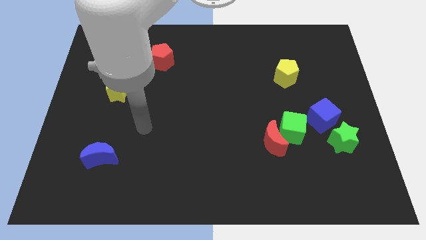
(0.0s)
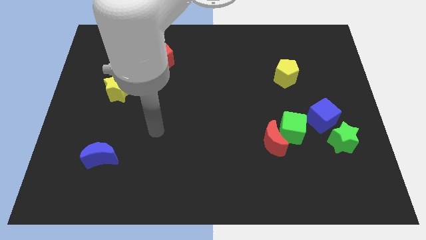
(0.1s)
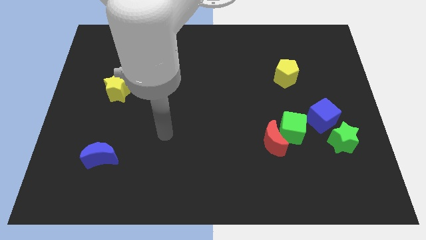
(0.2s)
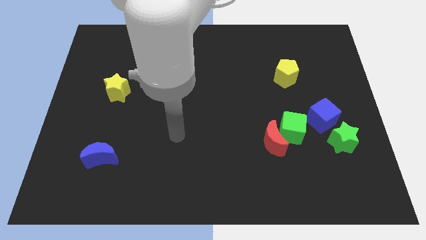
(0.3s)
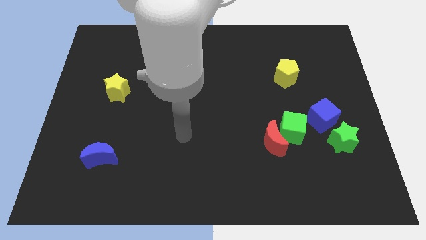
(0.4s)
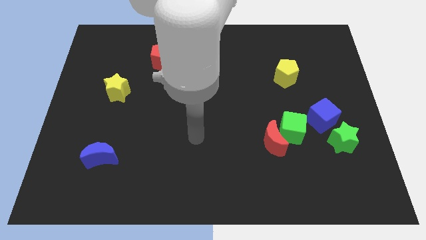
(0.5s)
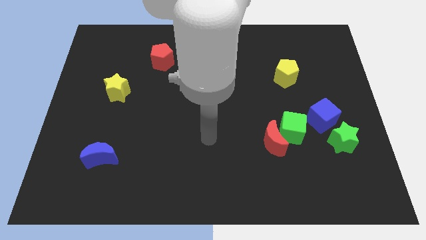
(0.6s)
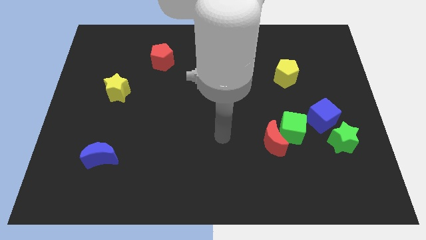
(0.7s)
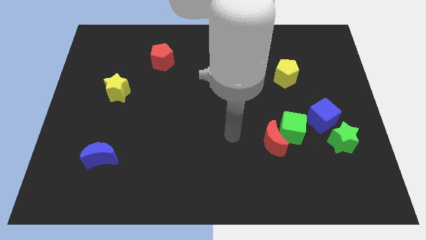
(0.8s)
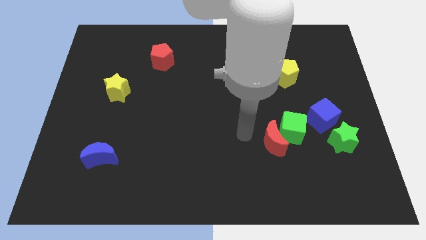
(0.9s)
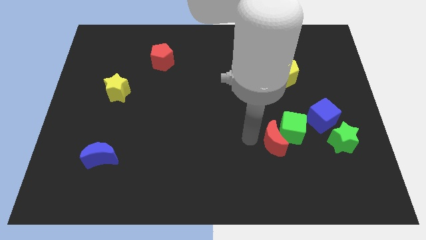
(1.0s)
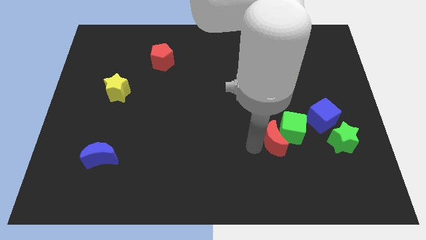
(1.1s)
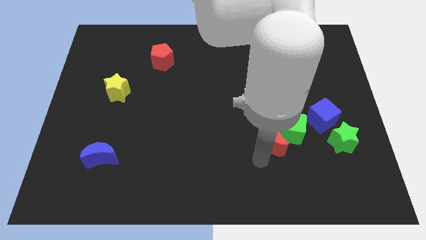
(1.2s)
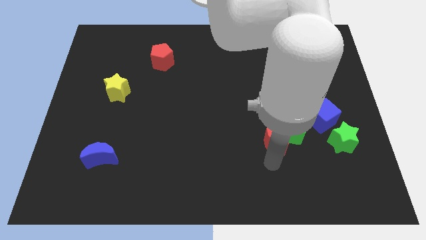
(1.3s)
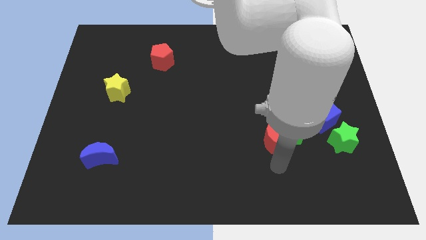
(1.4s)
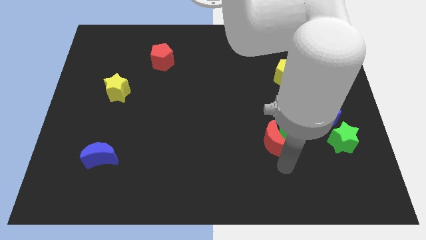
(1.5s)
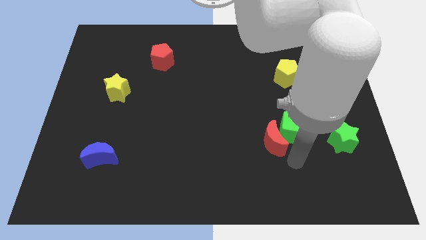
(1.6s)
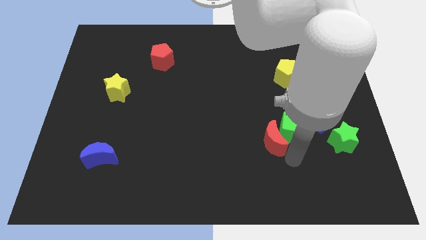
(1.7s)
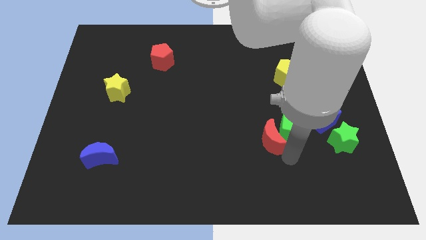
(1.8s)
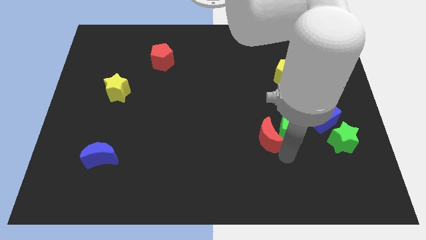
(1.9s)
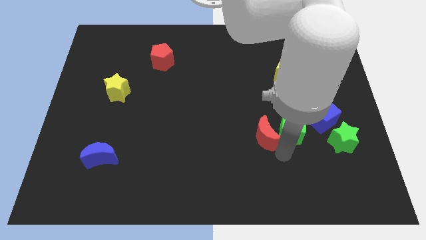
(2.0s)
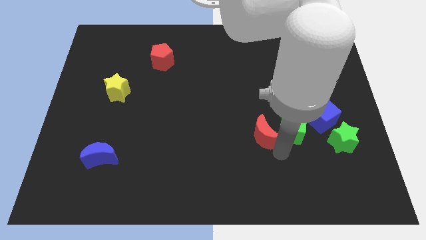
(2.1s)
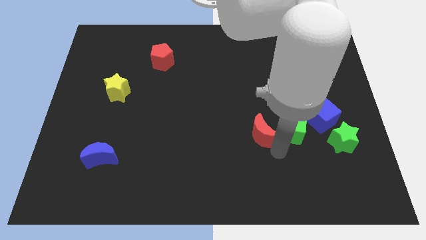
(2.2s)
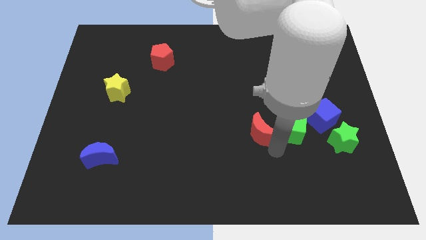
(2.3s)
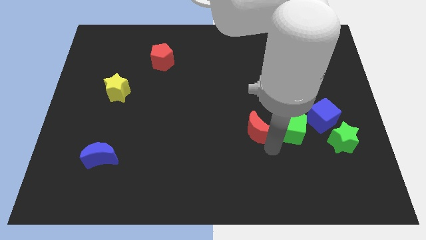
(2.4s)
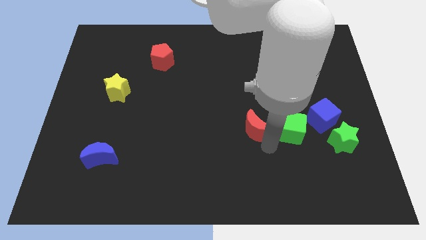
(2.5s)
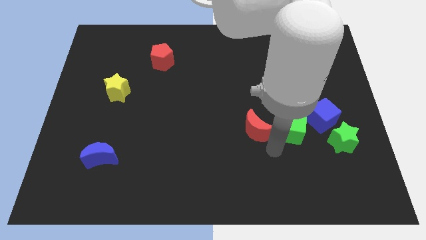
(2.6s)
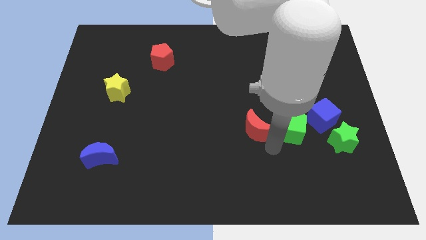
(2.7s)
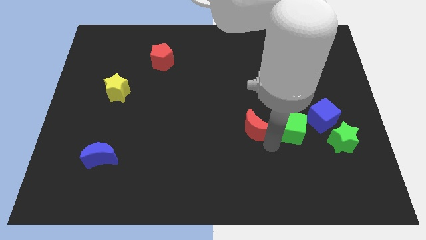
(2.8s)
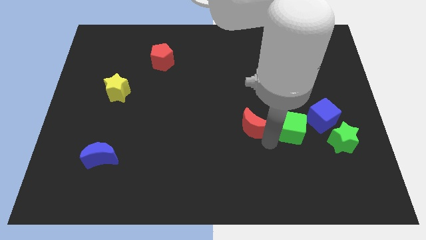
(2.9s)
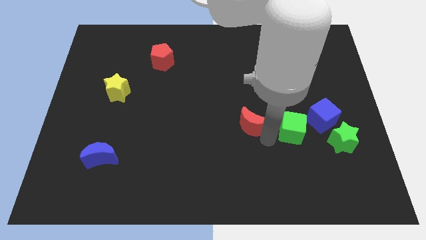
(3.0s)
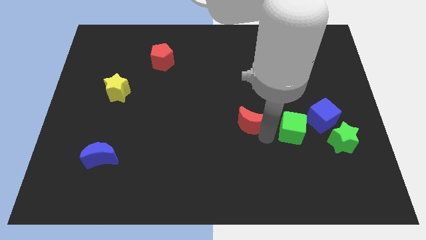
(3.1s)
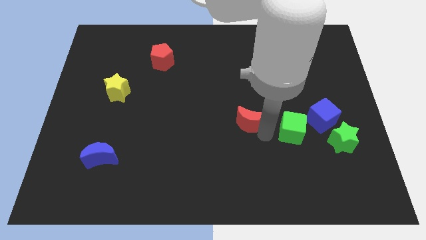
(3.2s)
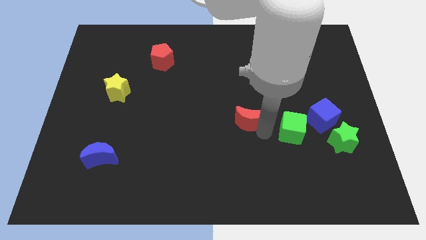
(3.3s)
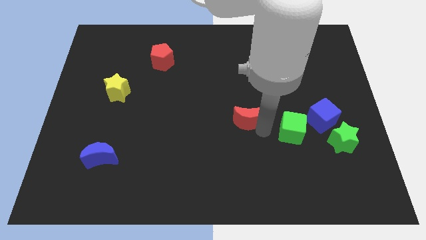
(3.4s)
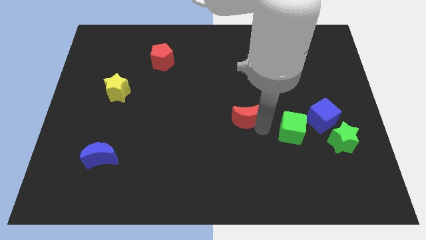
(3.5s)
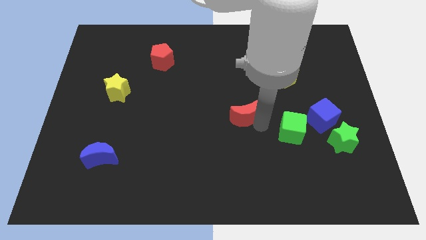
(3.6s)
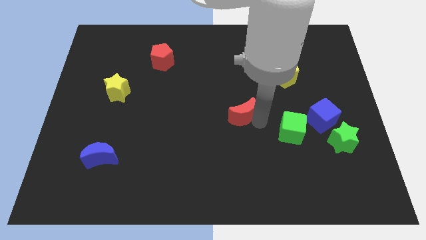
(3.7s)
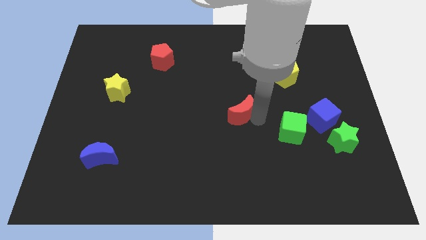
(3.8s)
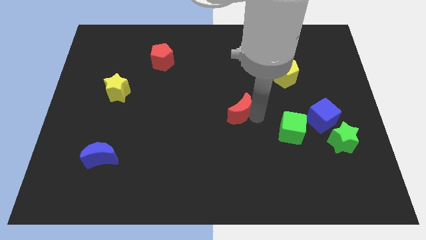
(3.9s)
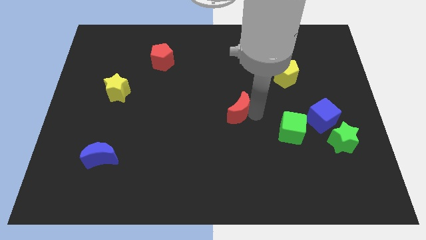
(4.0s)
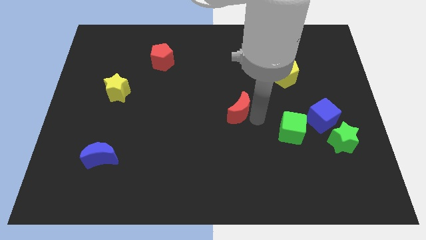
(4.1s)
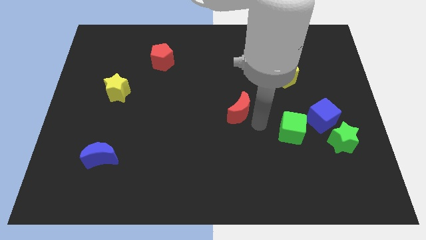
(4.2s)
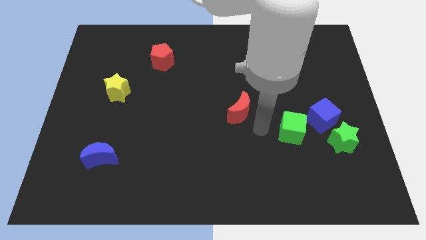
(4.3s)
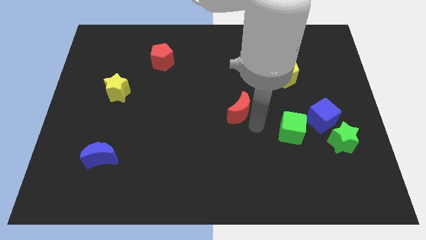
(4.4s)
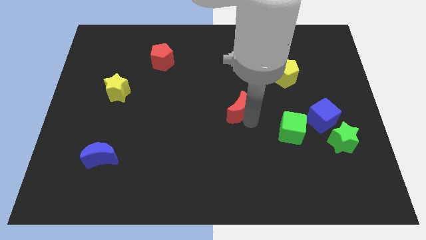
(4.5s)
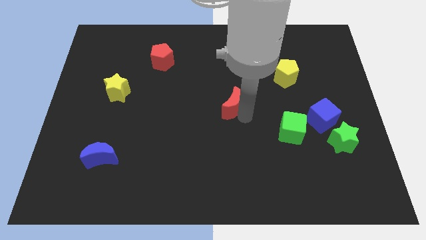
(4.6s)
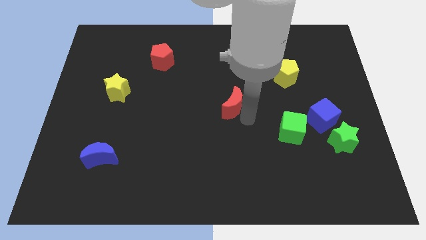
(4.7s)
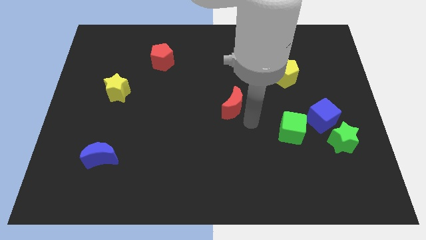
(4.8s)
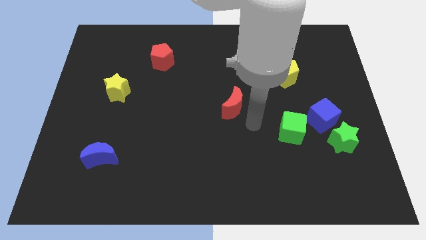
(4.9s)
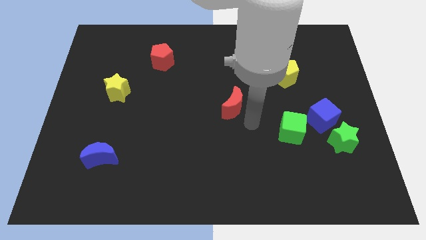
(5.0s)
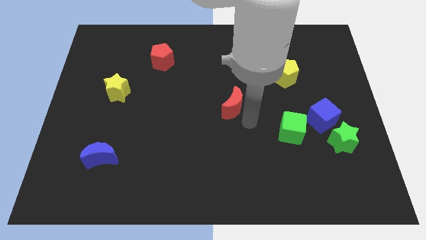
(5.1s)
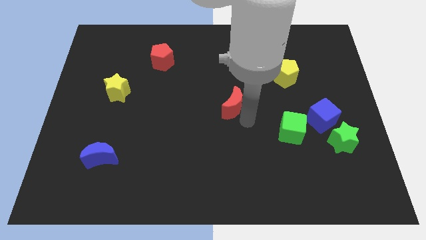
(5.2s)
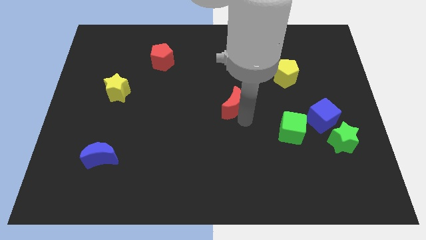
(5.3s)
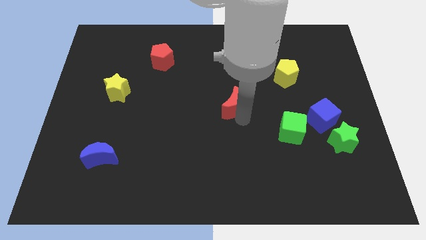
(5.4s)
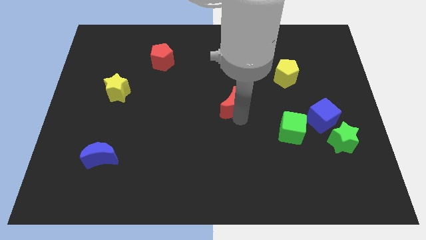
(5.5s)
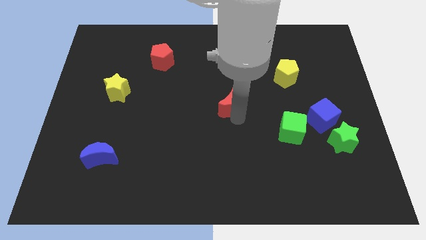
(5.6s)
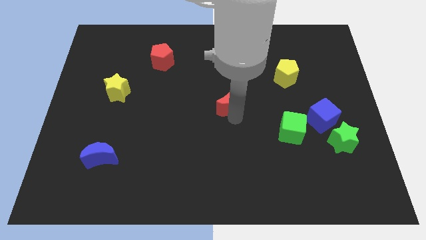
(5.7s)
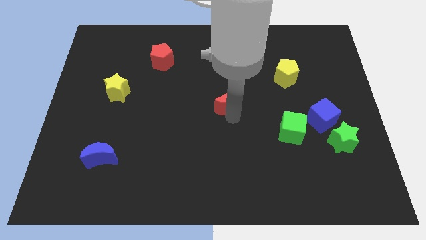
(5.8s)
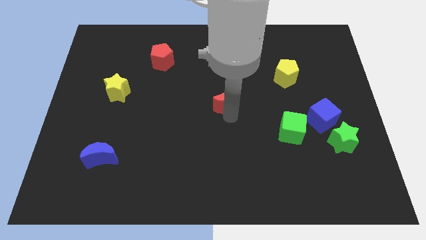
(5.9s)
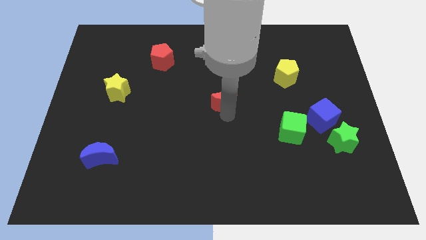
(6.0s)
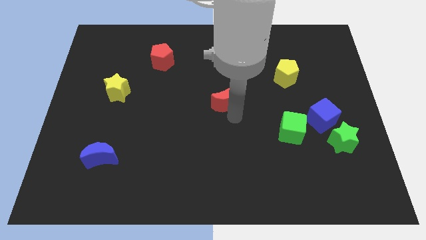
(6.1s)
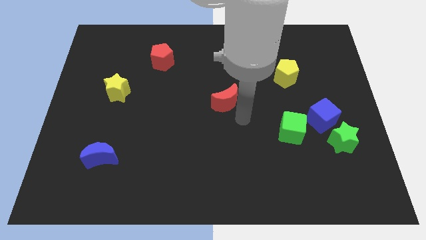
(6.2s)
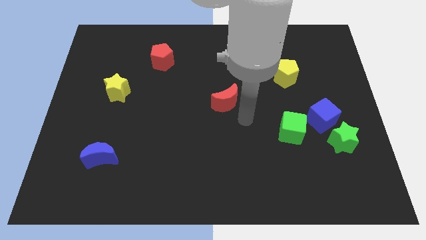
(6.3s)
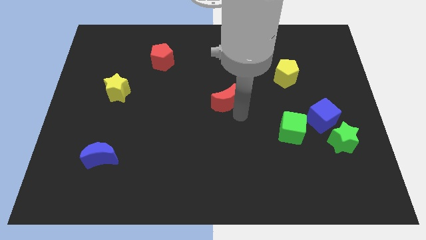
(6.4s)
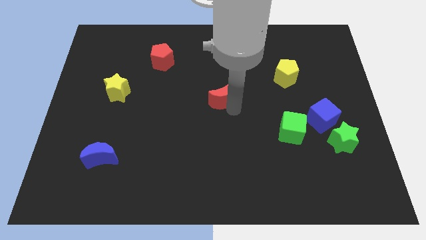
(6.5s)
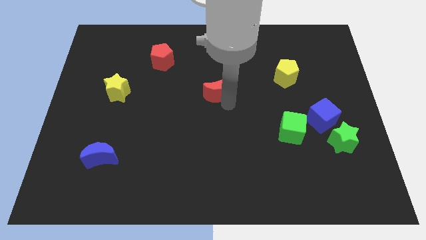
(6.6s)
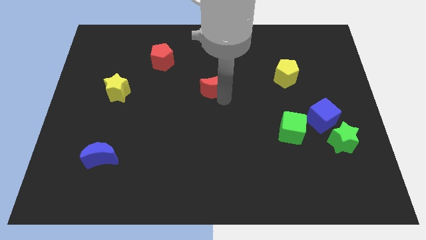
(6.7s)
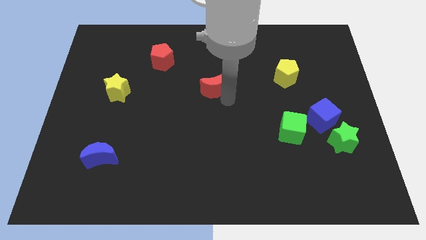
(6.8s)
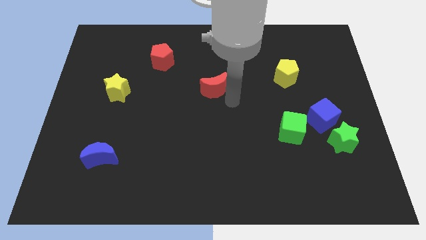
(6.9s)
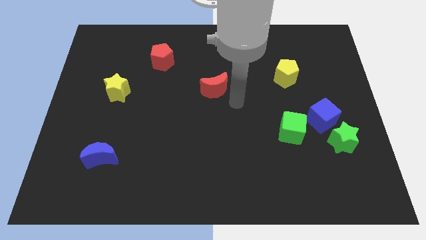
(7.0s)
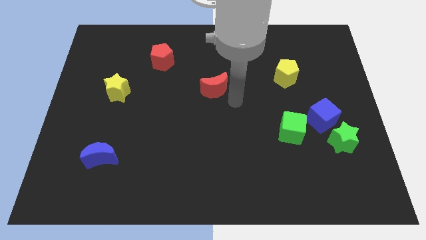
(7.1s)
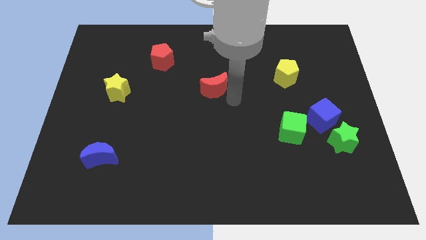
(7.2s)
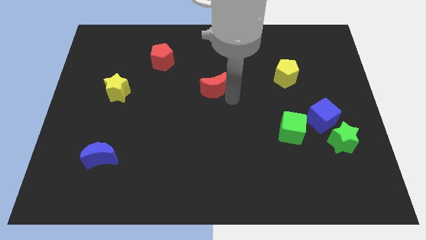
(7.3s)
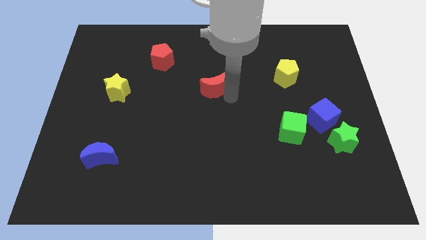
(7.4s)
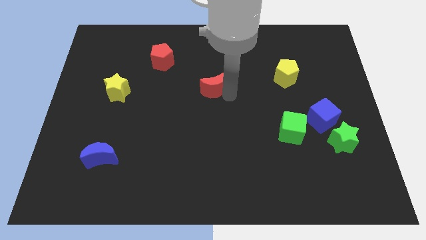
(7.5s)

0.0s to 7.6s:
push the red moon upwards and left diagonally
